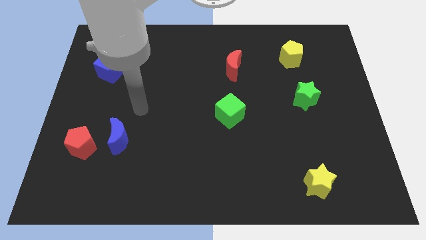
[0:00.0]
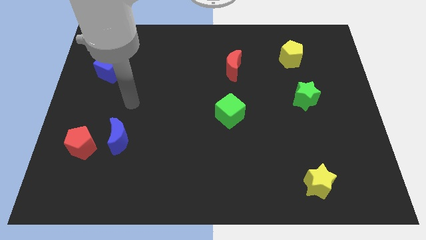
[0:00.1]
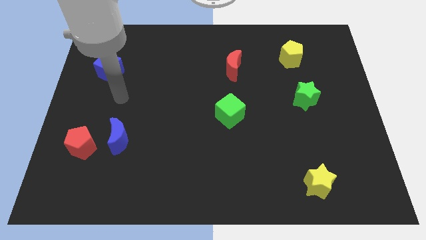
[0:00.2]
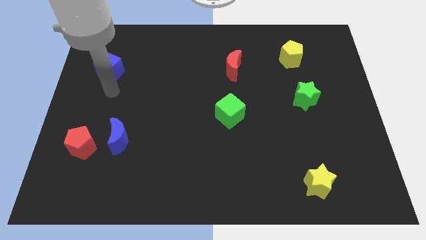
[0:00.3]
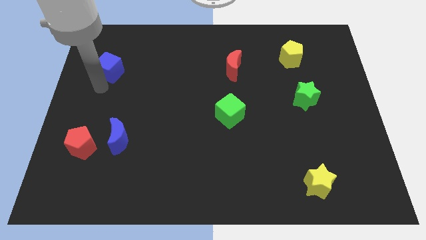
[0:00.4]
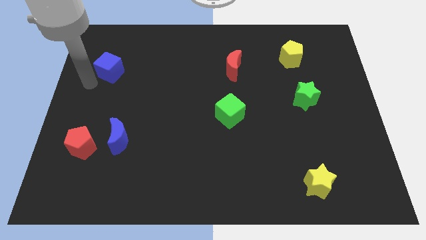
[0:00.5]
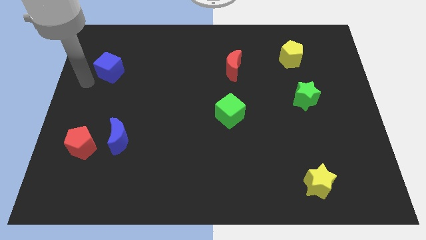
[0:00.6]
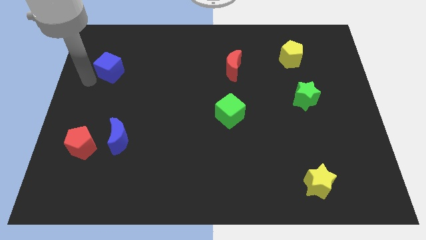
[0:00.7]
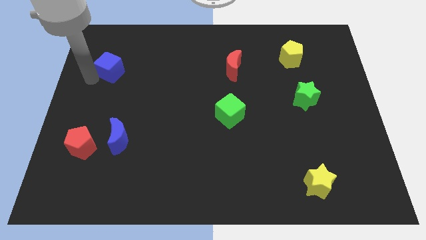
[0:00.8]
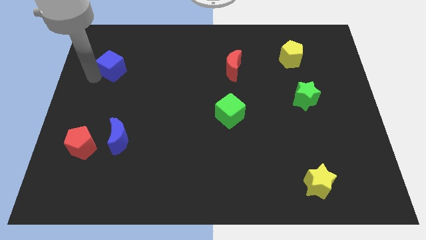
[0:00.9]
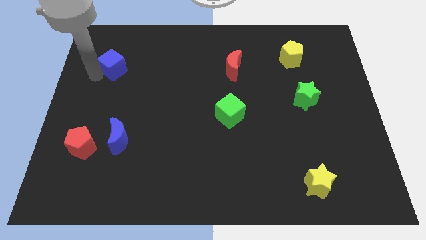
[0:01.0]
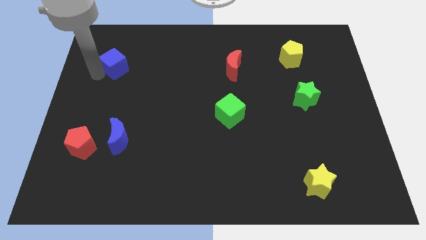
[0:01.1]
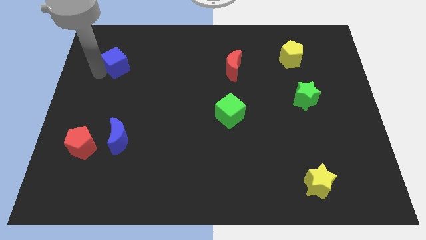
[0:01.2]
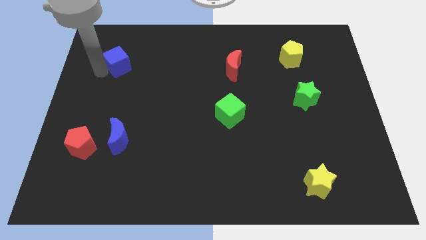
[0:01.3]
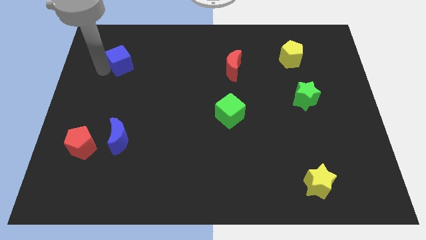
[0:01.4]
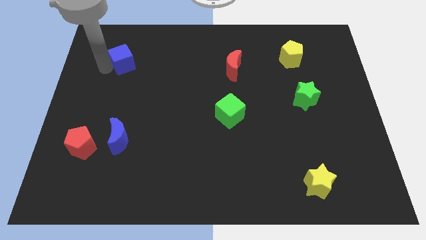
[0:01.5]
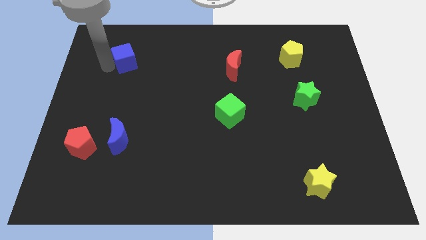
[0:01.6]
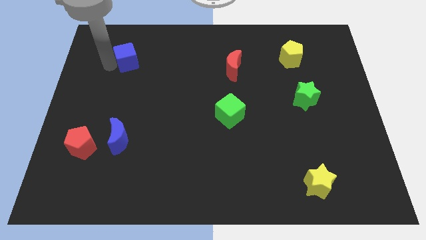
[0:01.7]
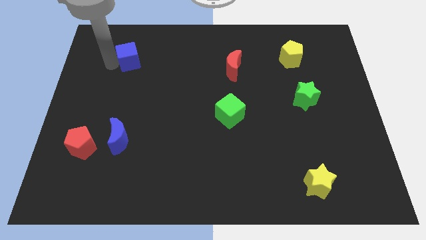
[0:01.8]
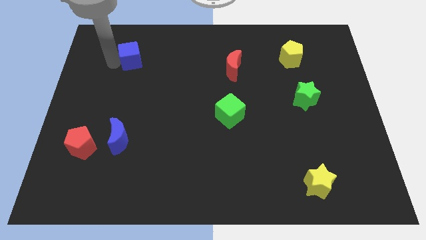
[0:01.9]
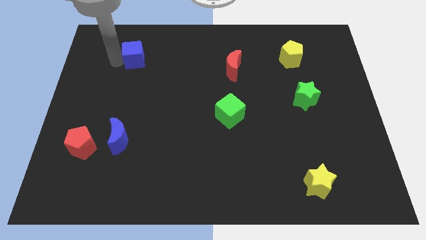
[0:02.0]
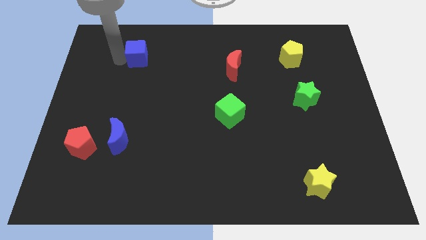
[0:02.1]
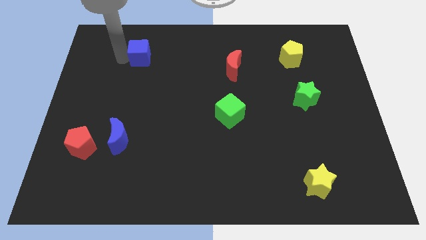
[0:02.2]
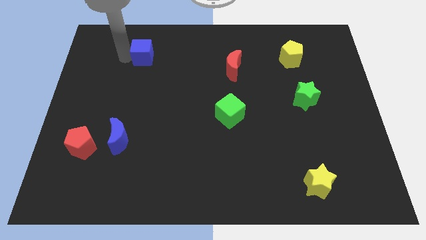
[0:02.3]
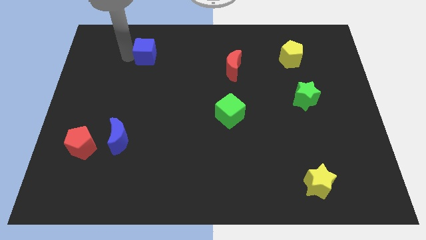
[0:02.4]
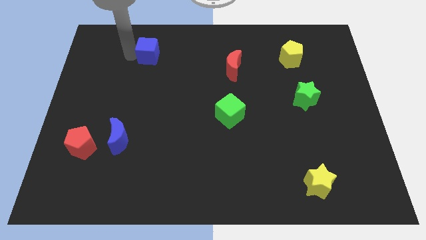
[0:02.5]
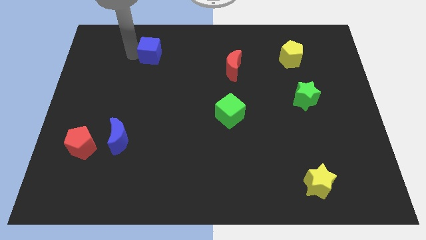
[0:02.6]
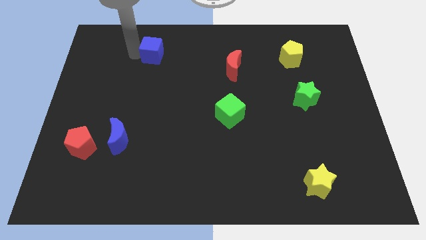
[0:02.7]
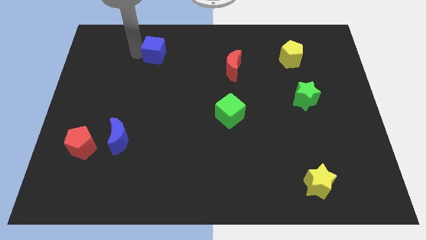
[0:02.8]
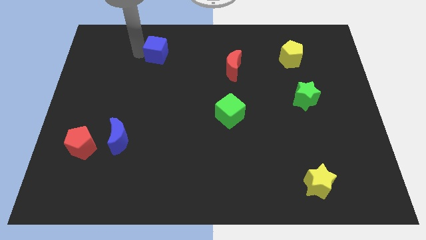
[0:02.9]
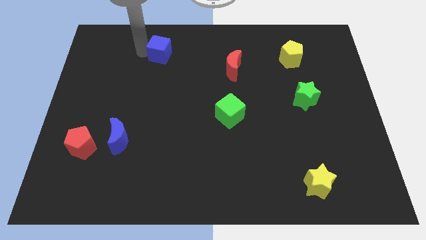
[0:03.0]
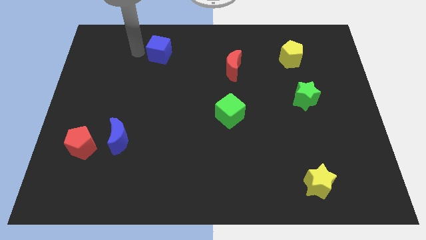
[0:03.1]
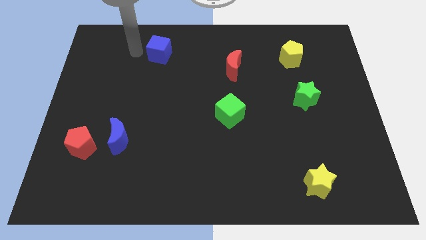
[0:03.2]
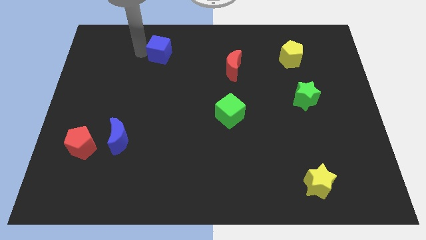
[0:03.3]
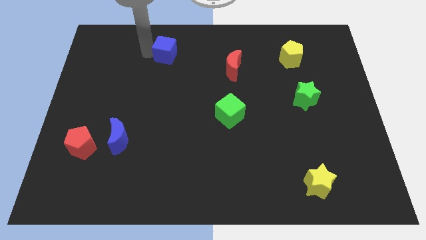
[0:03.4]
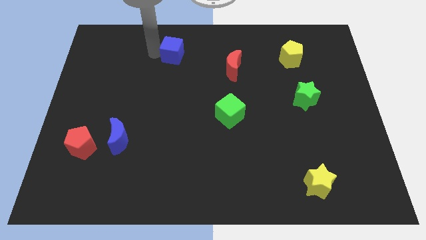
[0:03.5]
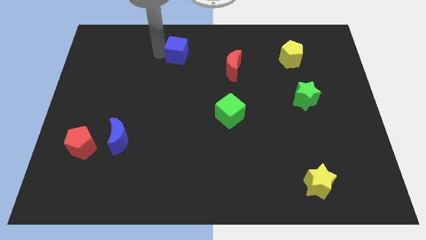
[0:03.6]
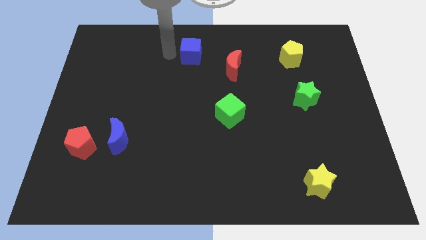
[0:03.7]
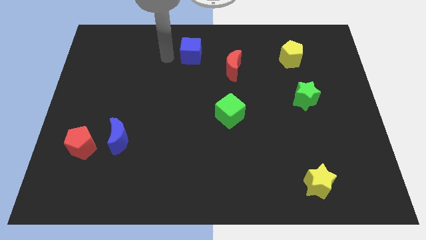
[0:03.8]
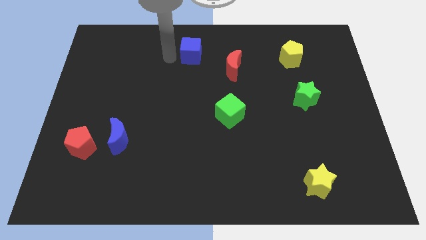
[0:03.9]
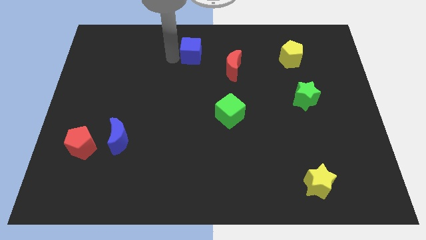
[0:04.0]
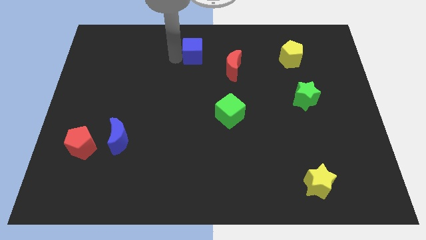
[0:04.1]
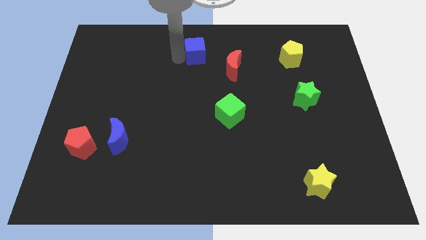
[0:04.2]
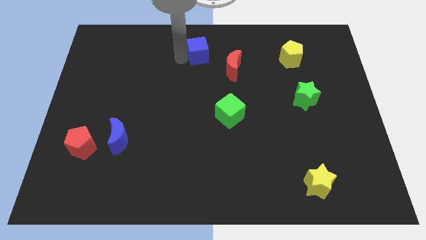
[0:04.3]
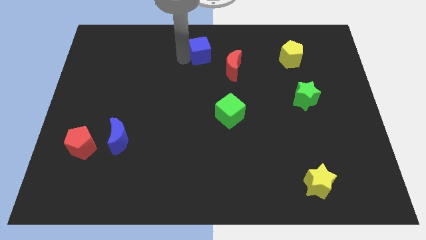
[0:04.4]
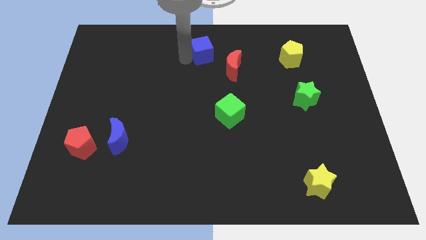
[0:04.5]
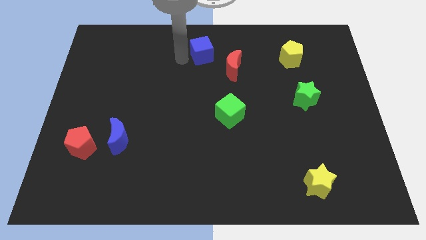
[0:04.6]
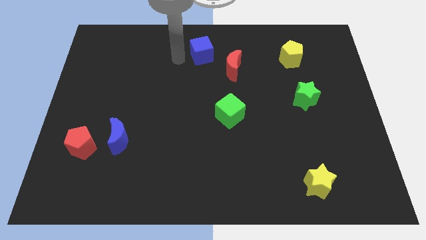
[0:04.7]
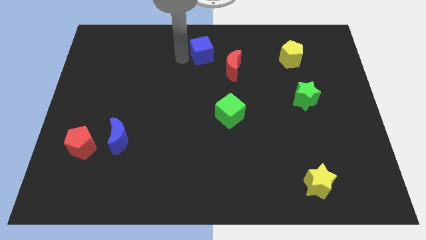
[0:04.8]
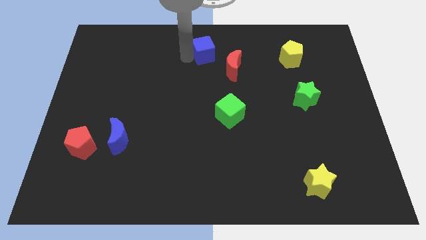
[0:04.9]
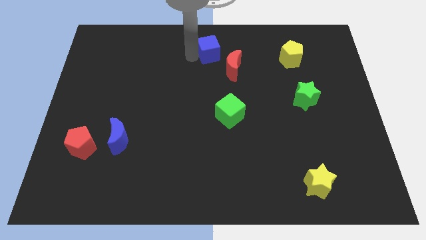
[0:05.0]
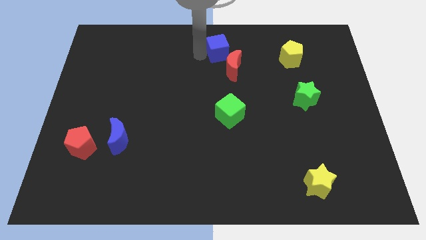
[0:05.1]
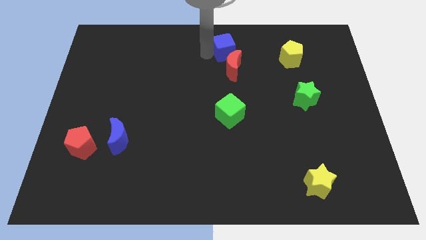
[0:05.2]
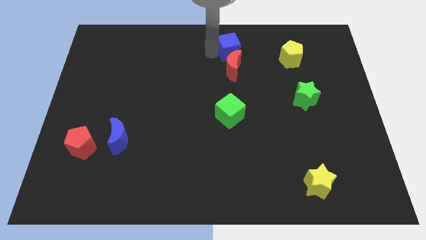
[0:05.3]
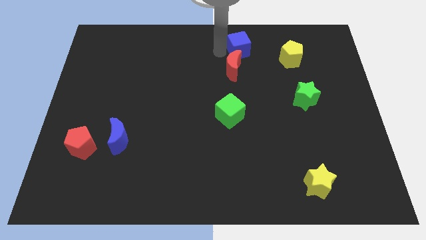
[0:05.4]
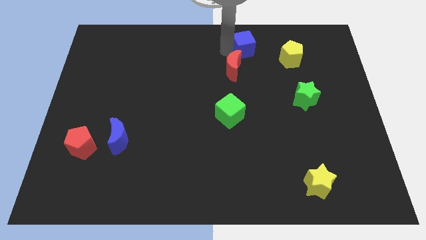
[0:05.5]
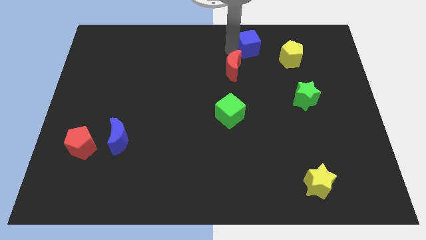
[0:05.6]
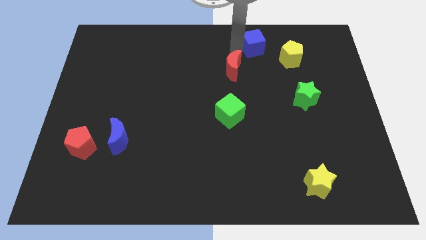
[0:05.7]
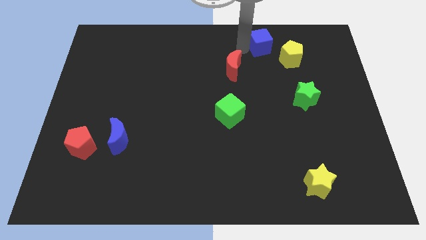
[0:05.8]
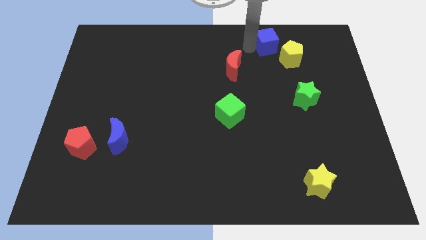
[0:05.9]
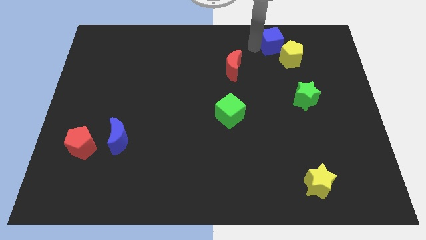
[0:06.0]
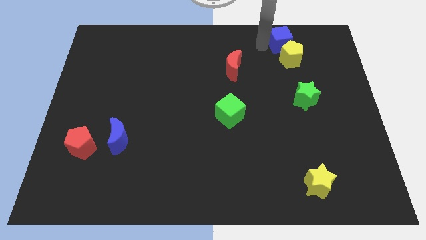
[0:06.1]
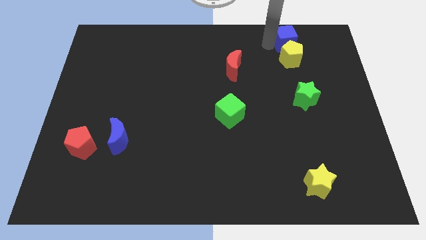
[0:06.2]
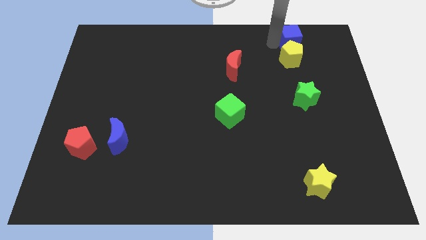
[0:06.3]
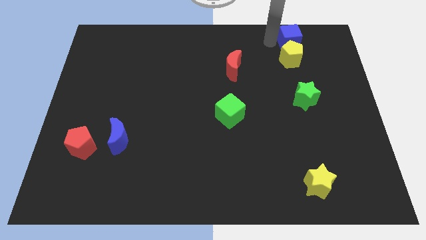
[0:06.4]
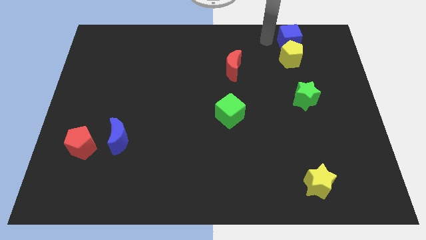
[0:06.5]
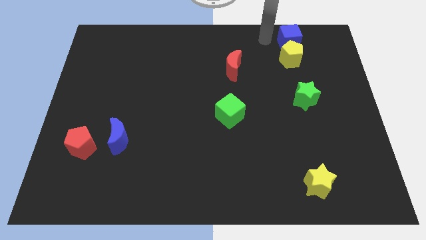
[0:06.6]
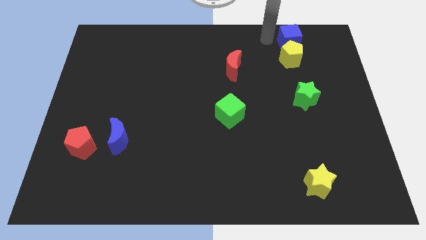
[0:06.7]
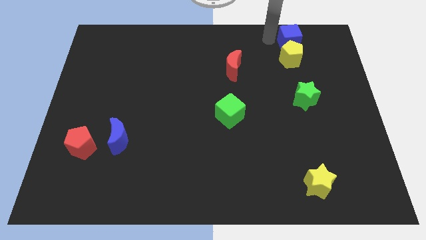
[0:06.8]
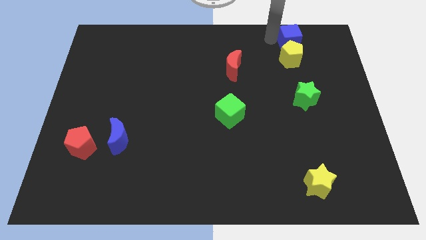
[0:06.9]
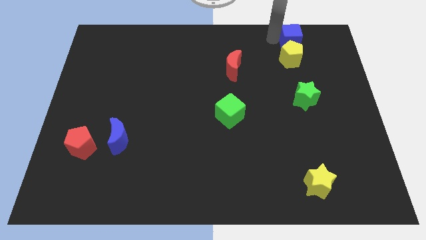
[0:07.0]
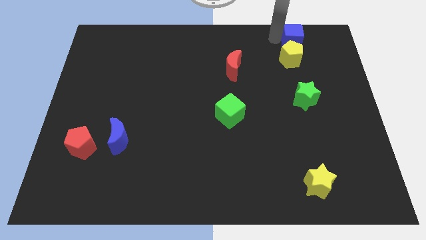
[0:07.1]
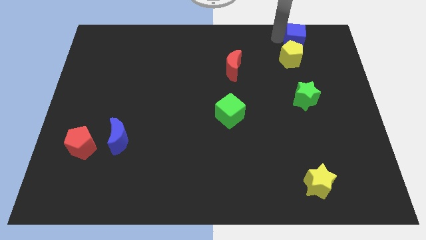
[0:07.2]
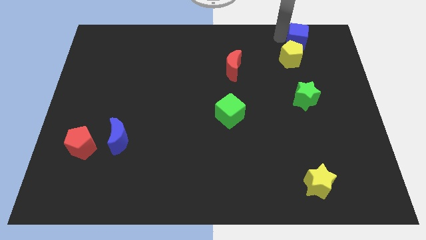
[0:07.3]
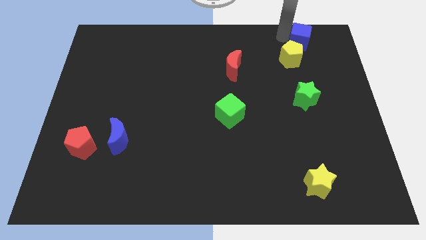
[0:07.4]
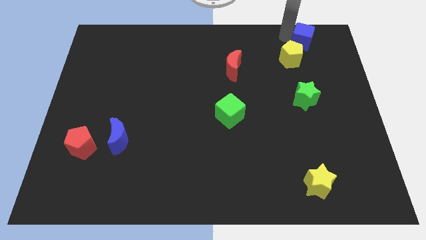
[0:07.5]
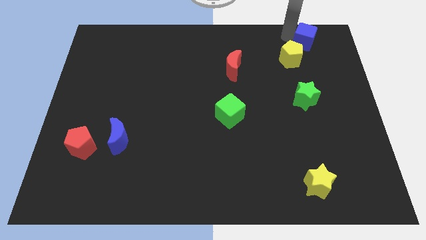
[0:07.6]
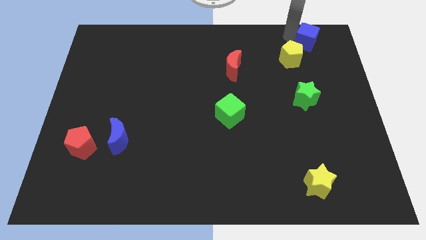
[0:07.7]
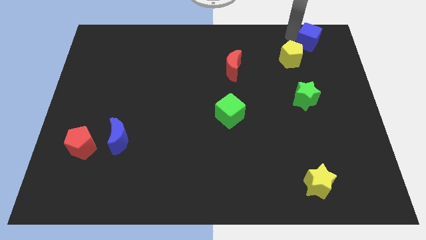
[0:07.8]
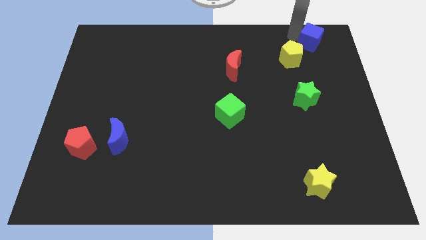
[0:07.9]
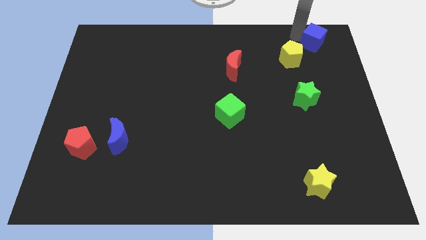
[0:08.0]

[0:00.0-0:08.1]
move the blue cube to the top right
